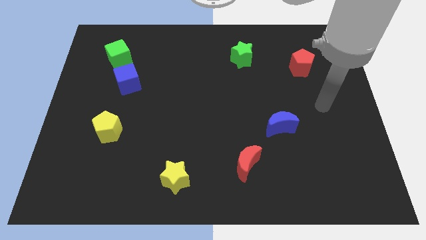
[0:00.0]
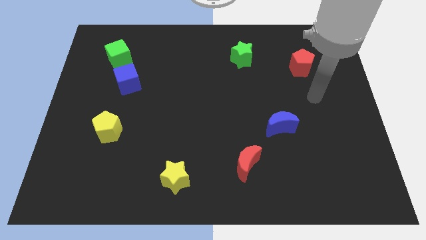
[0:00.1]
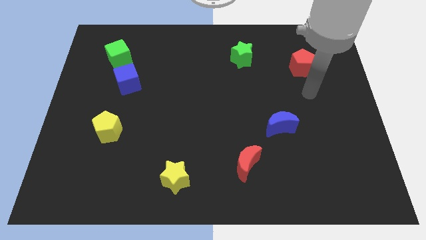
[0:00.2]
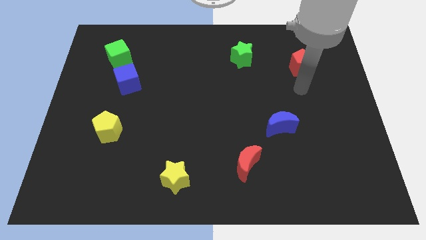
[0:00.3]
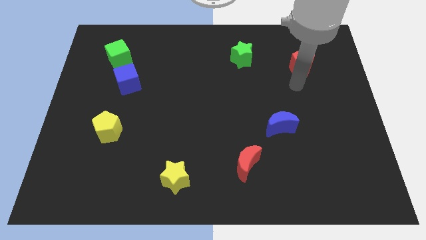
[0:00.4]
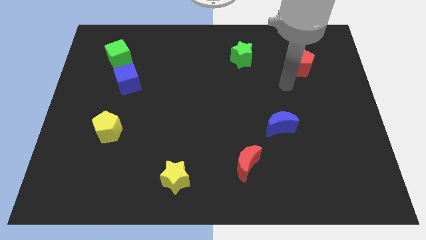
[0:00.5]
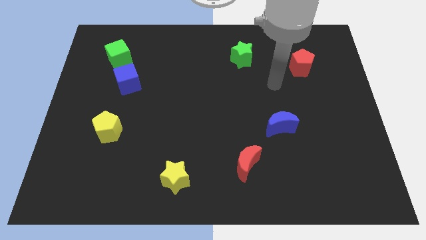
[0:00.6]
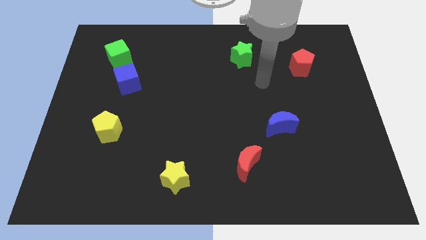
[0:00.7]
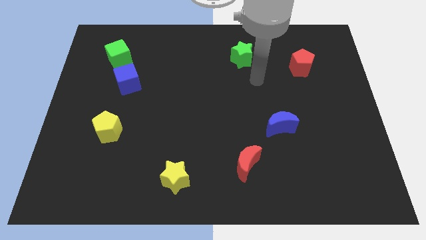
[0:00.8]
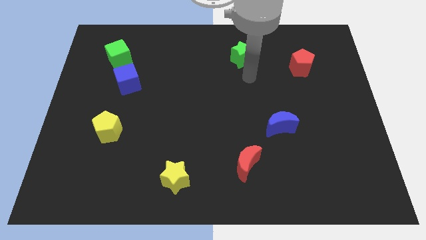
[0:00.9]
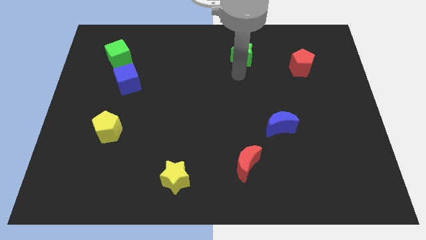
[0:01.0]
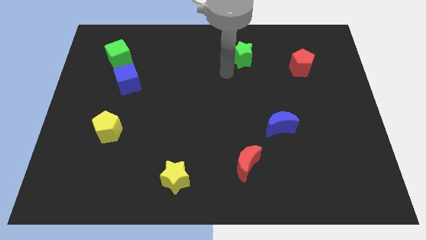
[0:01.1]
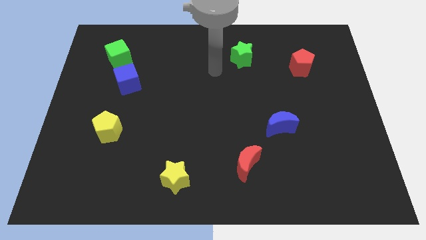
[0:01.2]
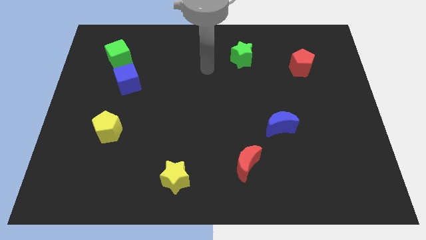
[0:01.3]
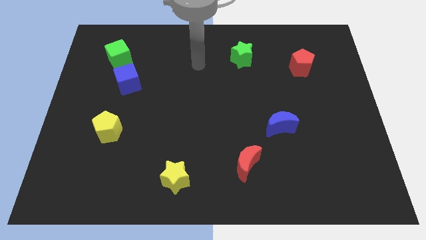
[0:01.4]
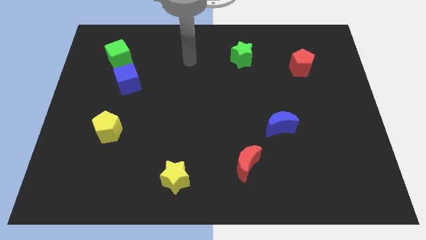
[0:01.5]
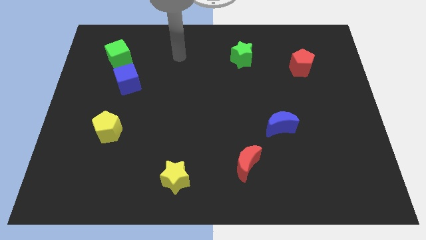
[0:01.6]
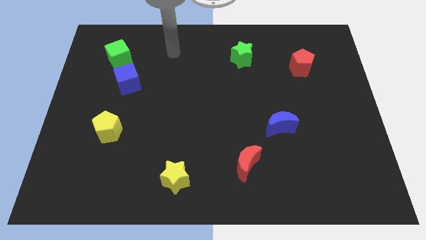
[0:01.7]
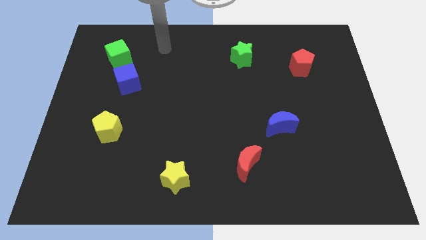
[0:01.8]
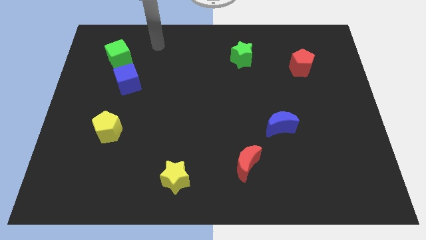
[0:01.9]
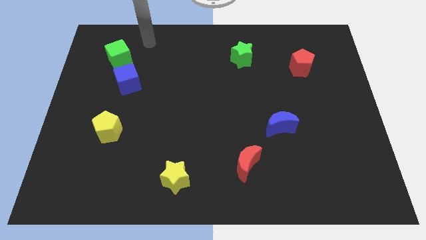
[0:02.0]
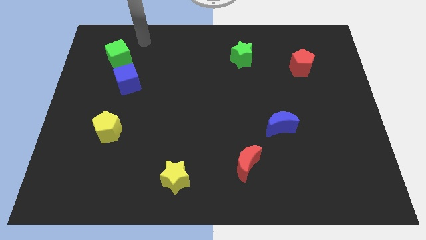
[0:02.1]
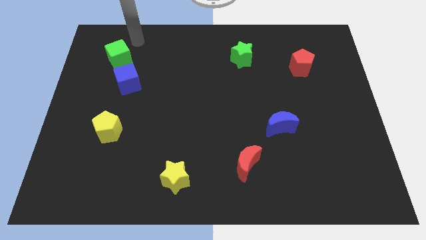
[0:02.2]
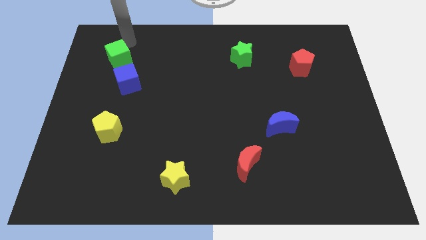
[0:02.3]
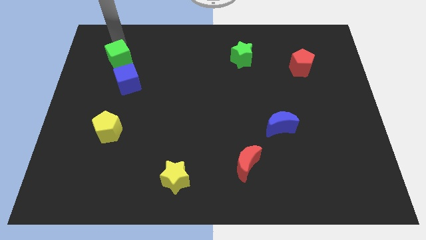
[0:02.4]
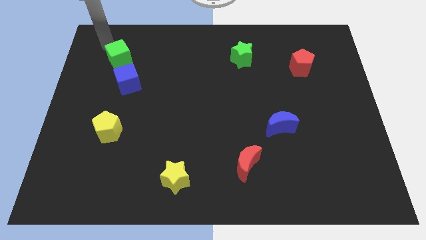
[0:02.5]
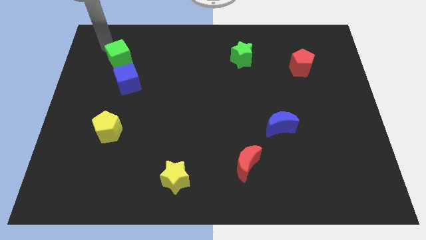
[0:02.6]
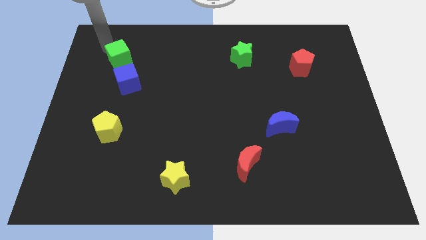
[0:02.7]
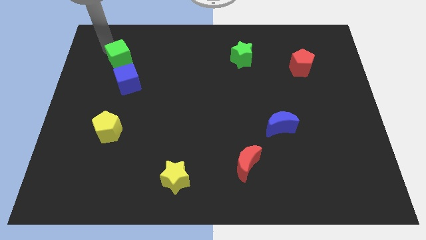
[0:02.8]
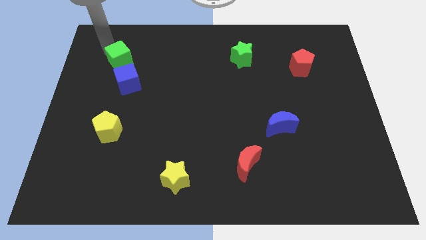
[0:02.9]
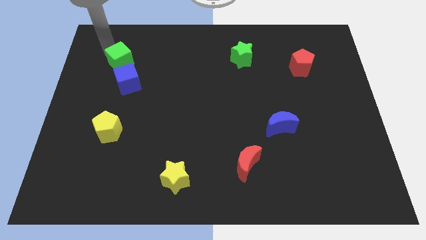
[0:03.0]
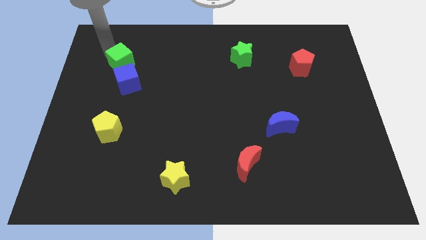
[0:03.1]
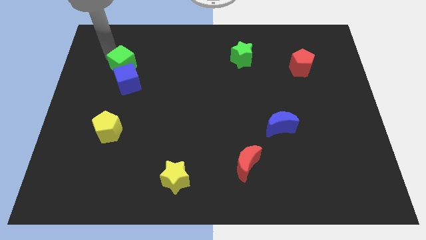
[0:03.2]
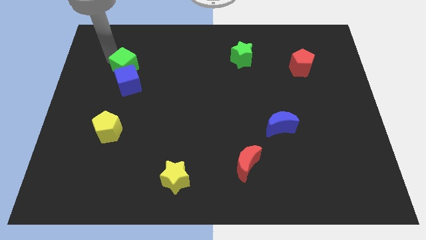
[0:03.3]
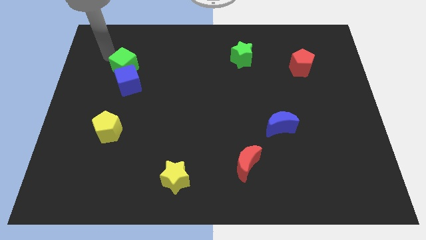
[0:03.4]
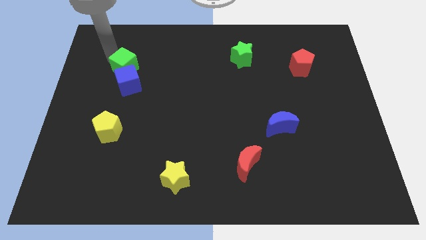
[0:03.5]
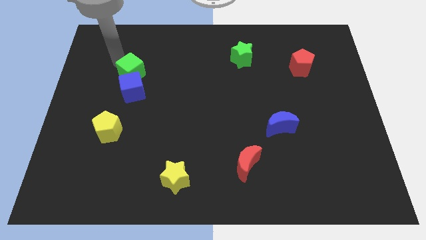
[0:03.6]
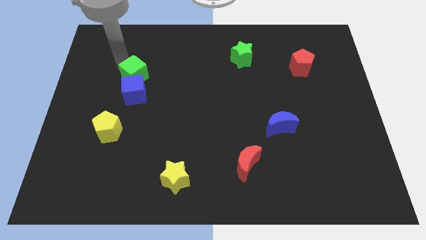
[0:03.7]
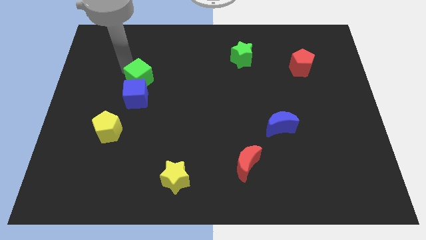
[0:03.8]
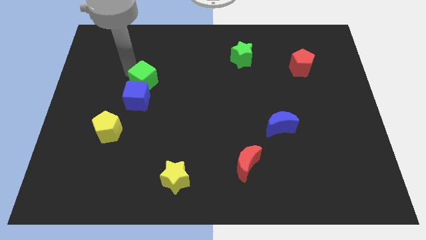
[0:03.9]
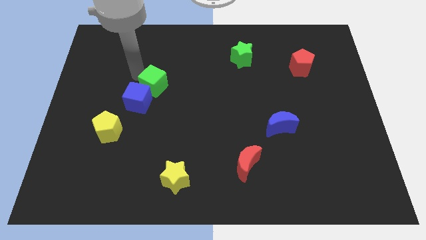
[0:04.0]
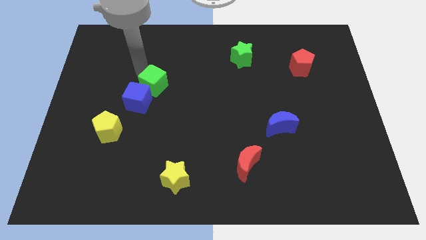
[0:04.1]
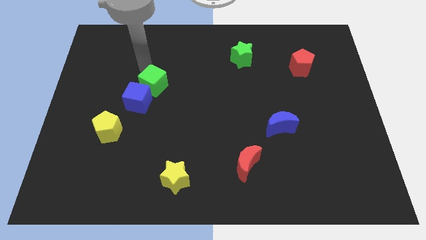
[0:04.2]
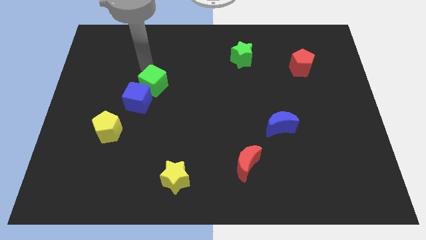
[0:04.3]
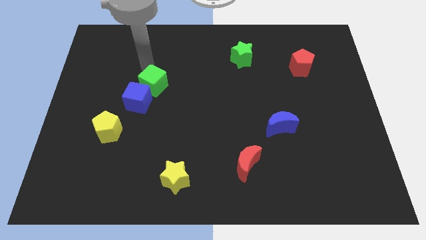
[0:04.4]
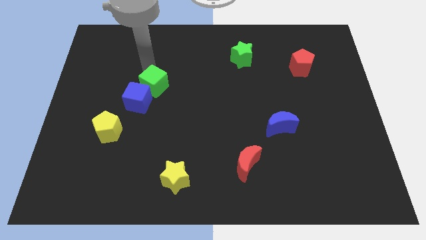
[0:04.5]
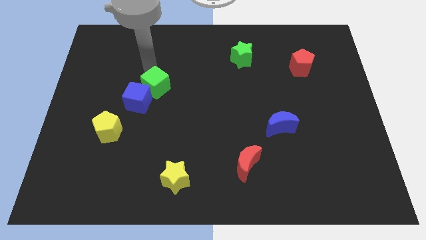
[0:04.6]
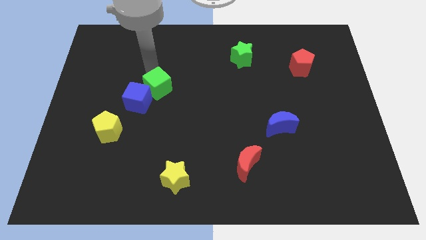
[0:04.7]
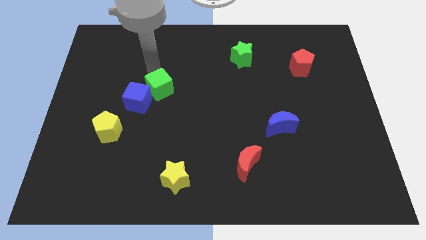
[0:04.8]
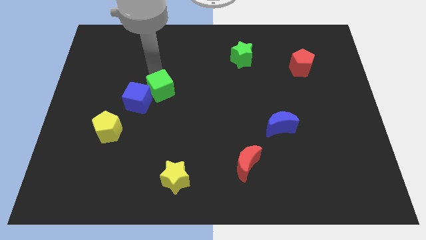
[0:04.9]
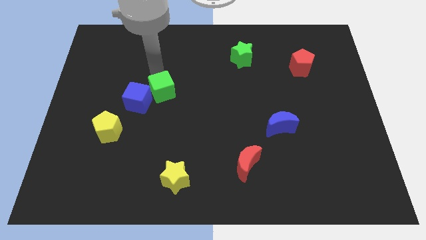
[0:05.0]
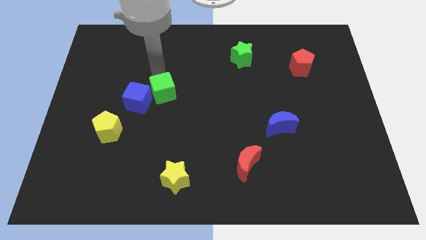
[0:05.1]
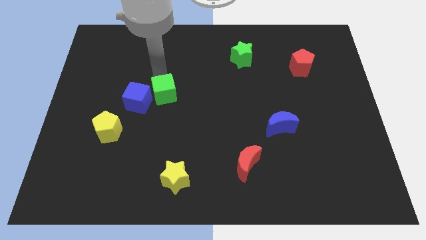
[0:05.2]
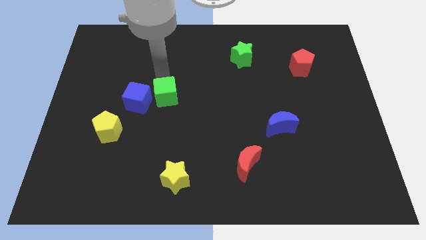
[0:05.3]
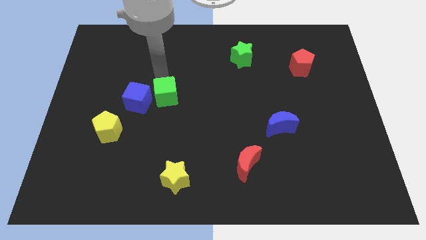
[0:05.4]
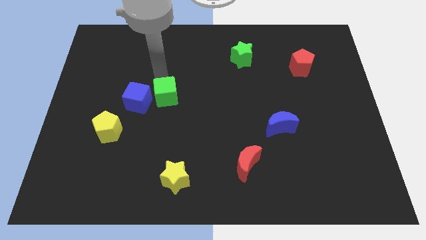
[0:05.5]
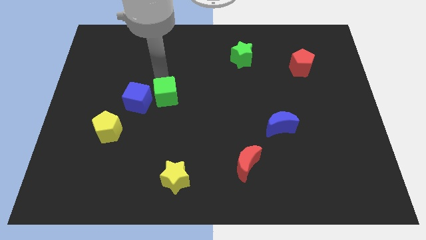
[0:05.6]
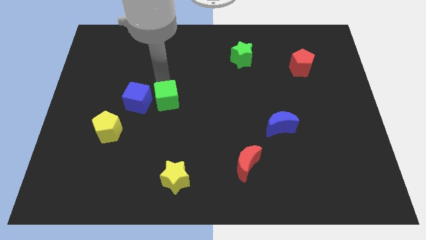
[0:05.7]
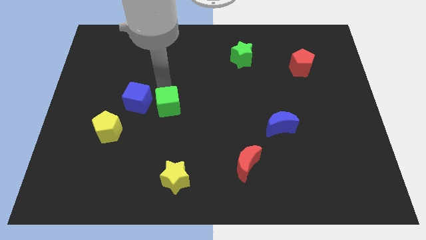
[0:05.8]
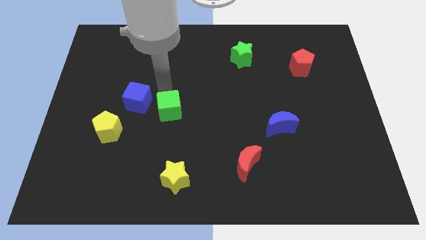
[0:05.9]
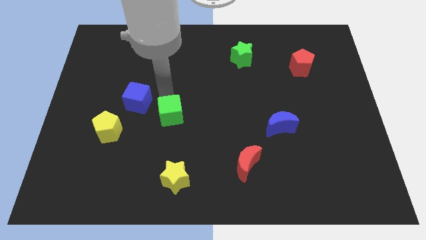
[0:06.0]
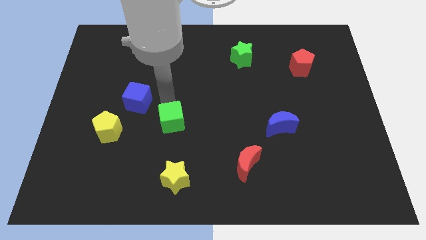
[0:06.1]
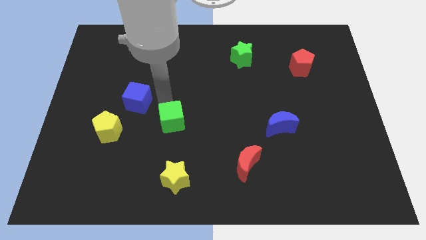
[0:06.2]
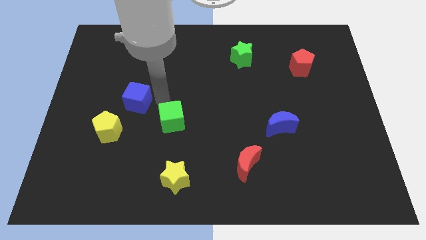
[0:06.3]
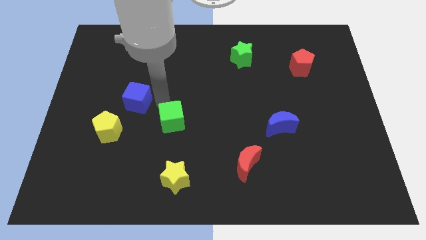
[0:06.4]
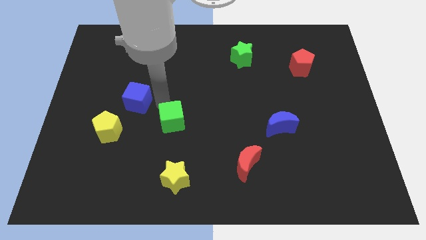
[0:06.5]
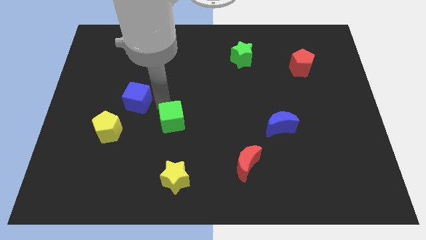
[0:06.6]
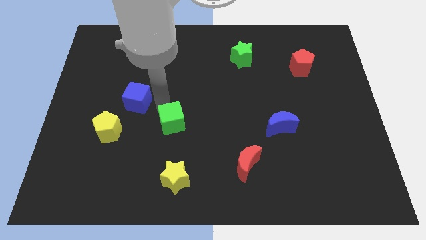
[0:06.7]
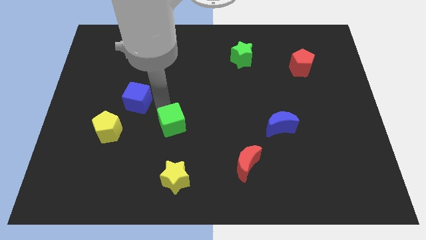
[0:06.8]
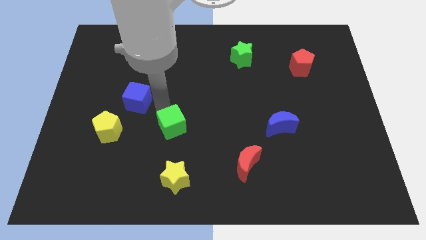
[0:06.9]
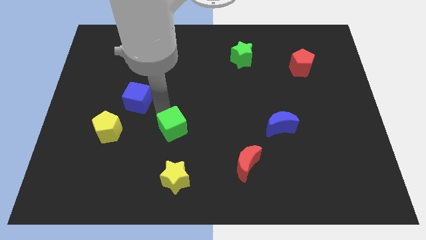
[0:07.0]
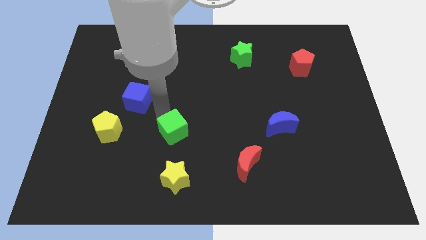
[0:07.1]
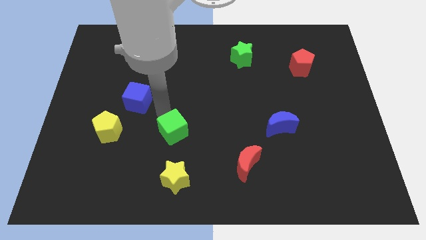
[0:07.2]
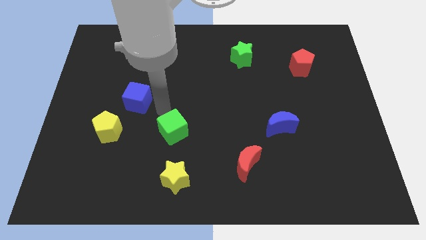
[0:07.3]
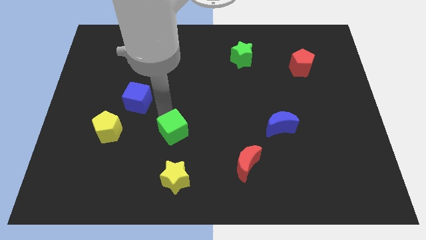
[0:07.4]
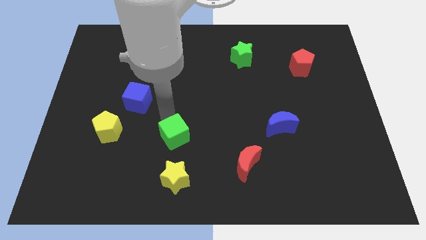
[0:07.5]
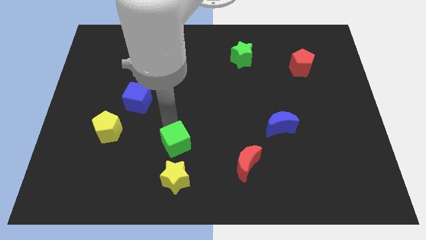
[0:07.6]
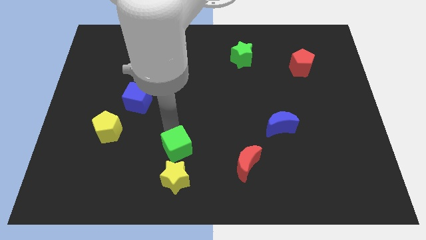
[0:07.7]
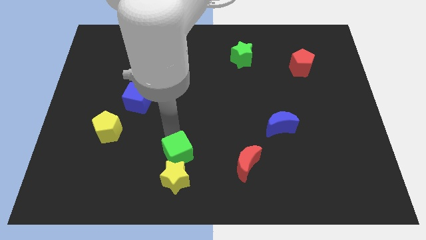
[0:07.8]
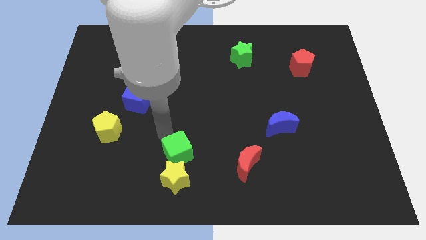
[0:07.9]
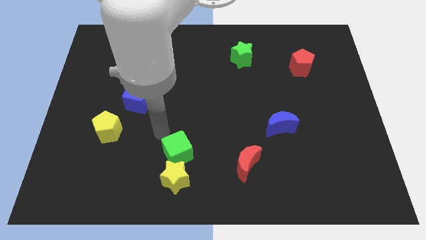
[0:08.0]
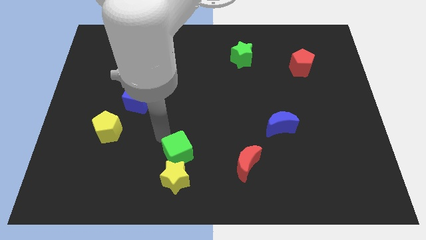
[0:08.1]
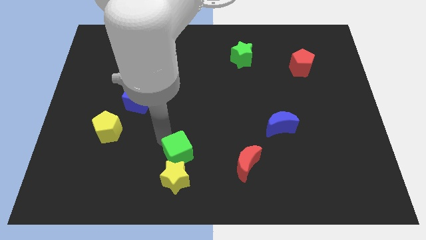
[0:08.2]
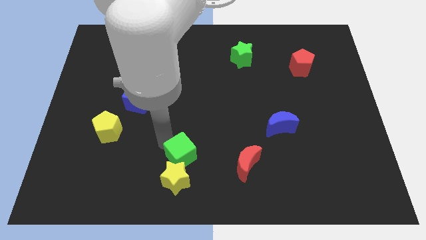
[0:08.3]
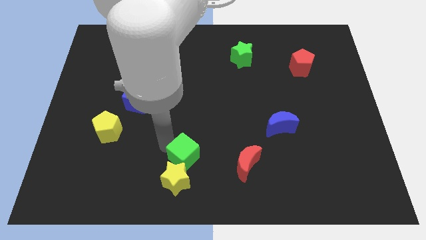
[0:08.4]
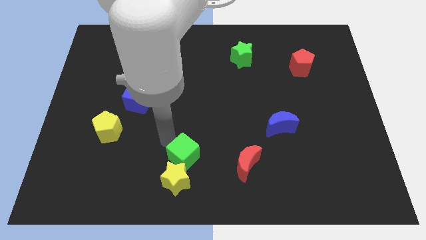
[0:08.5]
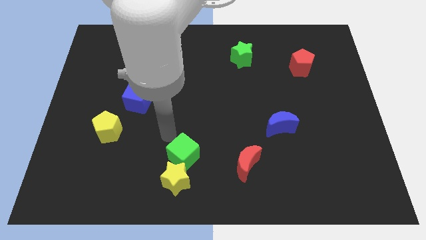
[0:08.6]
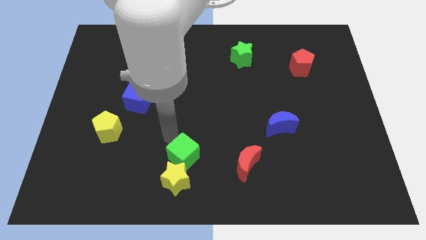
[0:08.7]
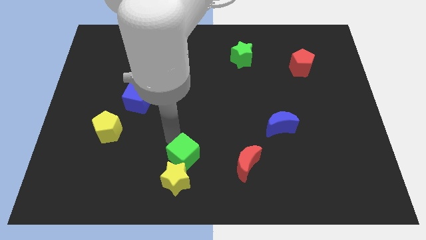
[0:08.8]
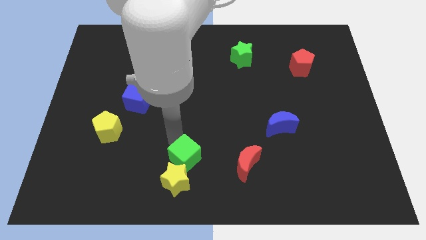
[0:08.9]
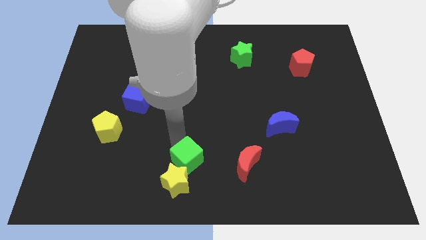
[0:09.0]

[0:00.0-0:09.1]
slide the green cube to the bottom
